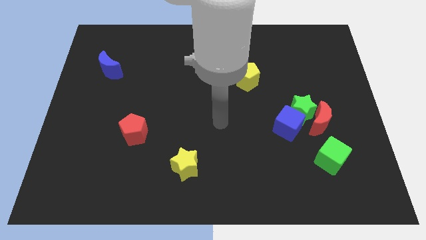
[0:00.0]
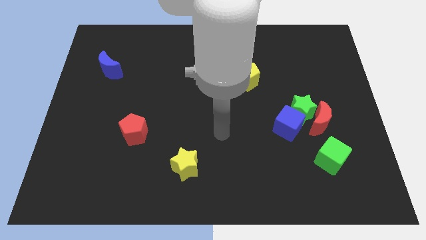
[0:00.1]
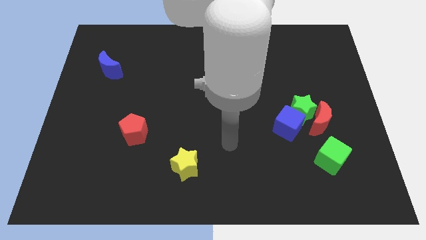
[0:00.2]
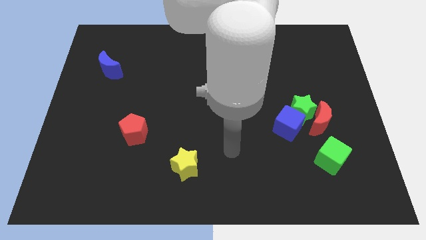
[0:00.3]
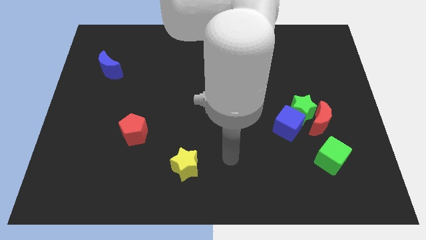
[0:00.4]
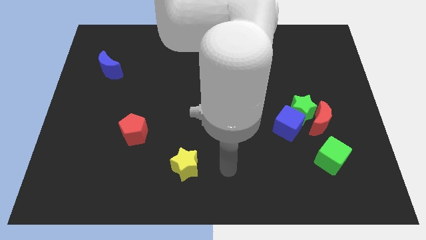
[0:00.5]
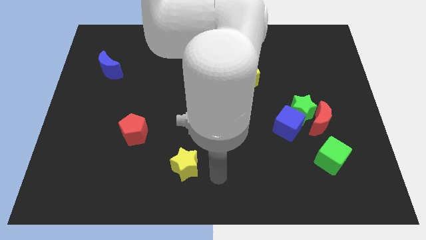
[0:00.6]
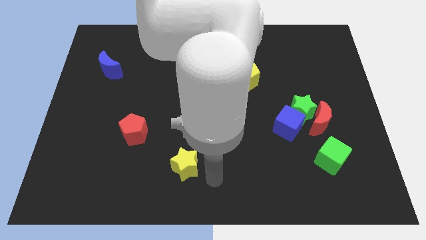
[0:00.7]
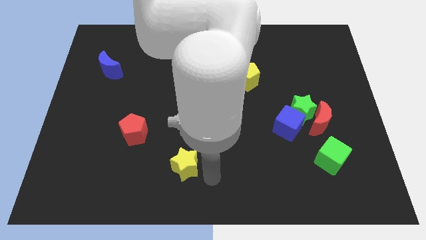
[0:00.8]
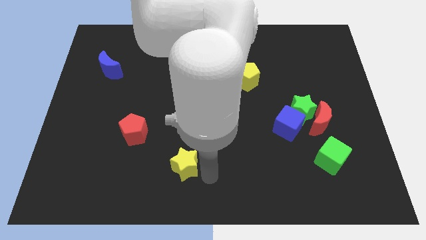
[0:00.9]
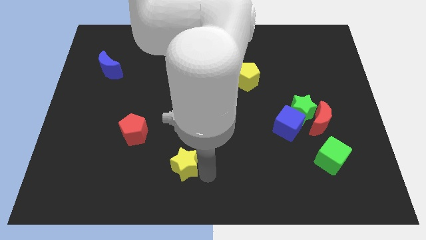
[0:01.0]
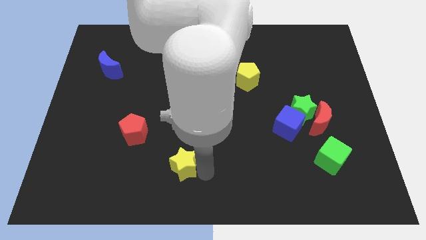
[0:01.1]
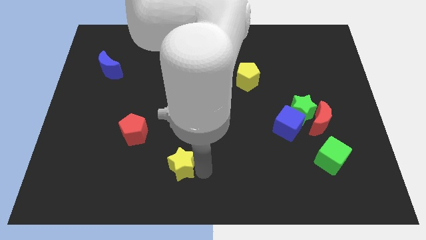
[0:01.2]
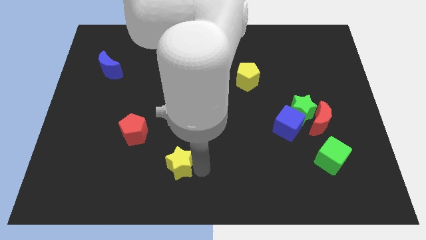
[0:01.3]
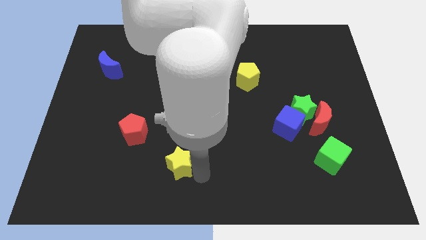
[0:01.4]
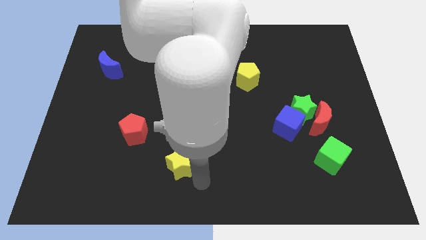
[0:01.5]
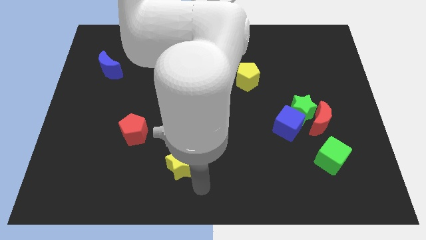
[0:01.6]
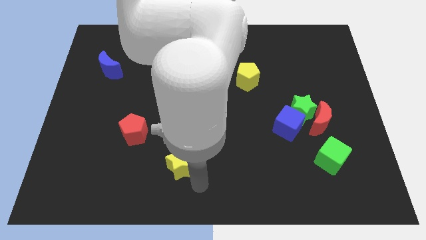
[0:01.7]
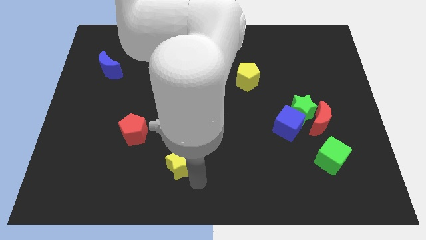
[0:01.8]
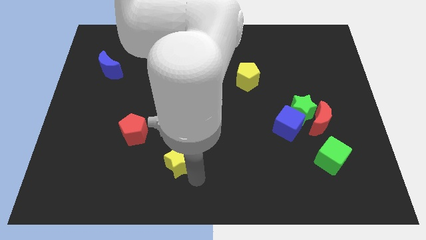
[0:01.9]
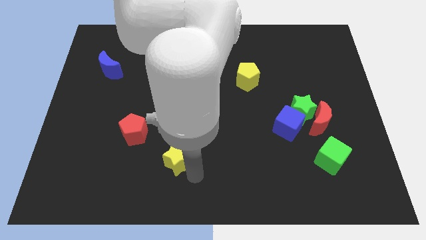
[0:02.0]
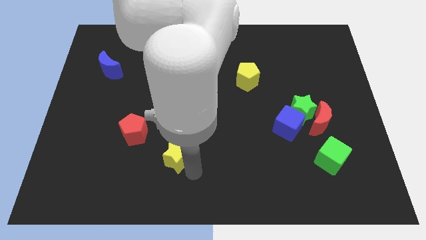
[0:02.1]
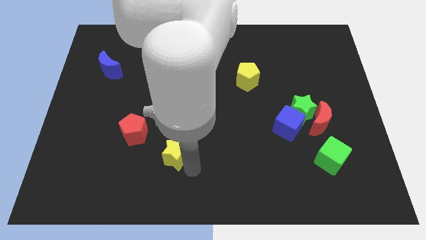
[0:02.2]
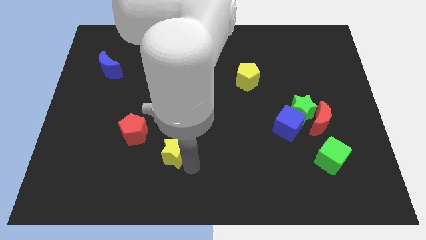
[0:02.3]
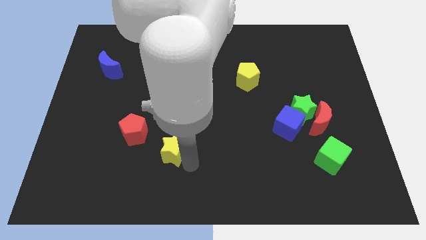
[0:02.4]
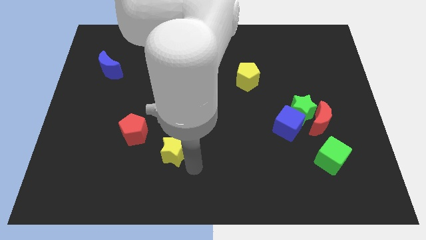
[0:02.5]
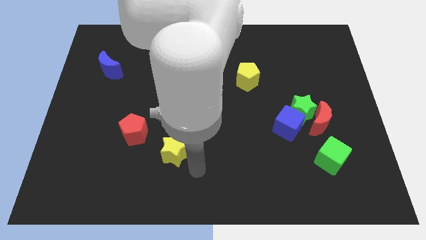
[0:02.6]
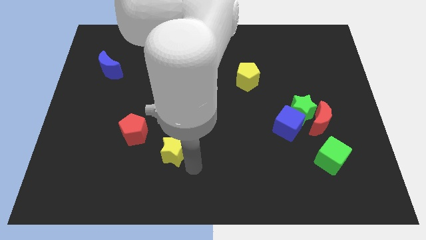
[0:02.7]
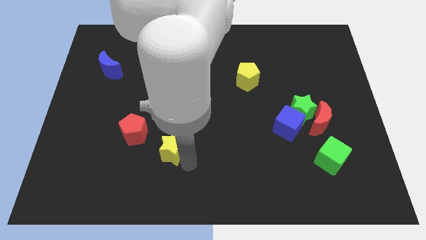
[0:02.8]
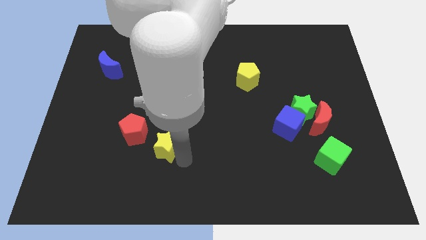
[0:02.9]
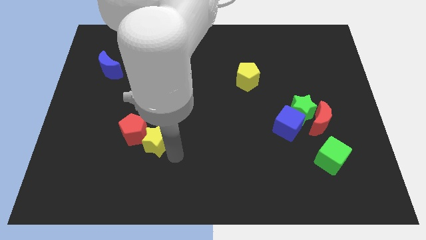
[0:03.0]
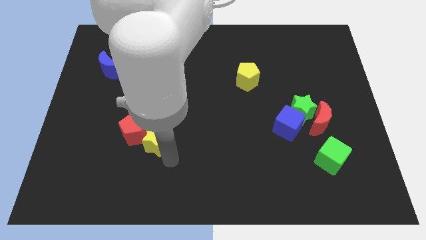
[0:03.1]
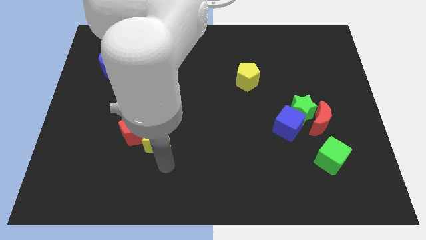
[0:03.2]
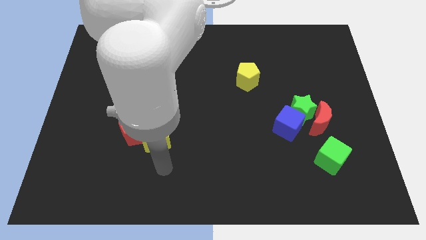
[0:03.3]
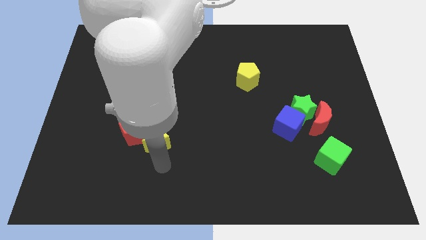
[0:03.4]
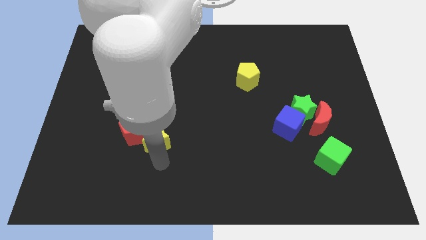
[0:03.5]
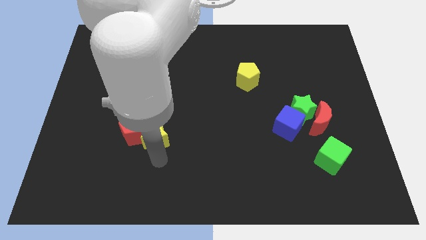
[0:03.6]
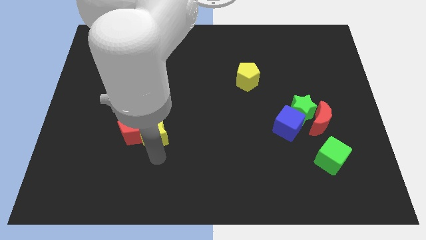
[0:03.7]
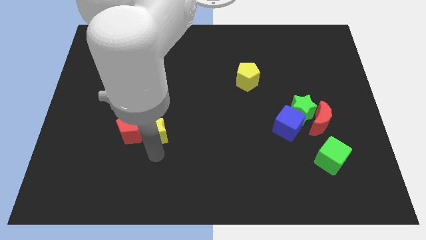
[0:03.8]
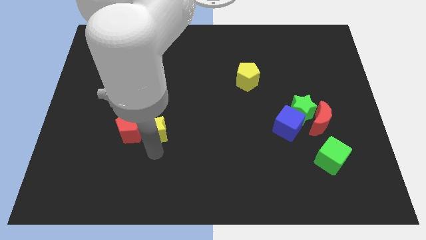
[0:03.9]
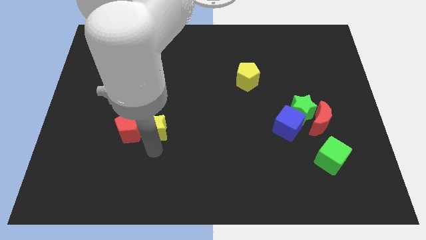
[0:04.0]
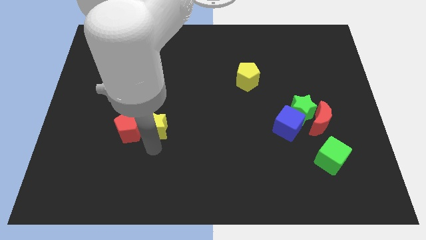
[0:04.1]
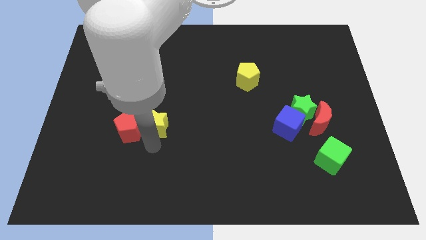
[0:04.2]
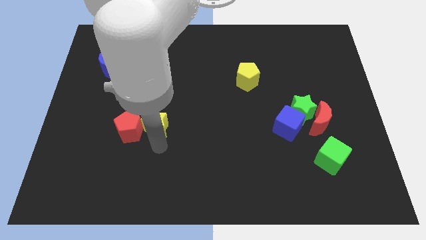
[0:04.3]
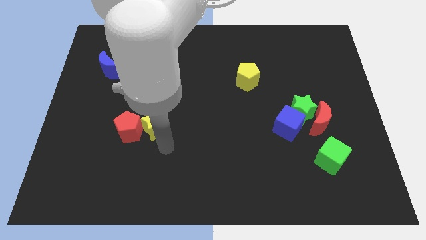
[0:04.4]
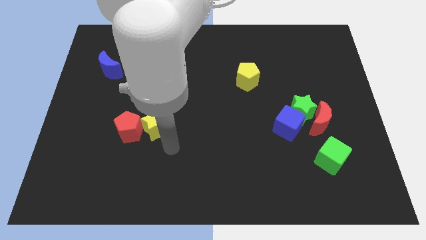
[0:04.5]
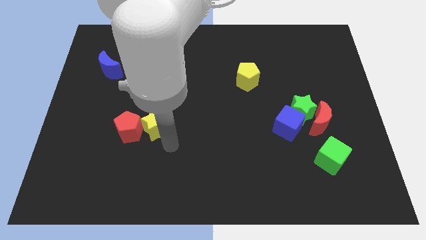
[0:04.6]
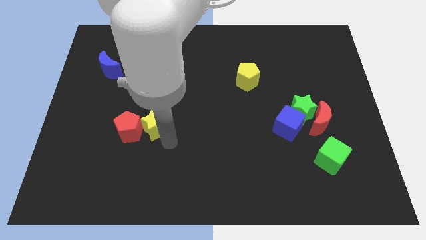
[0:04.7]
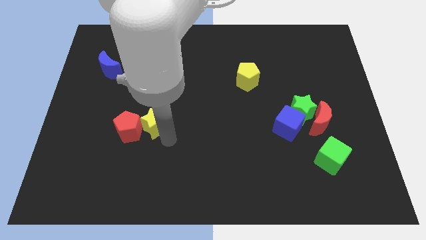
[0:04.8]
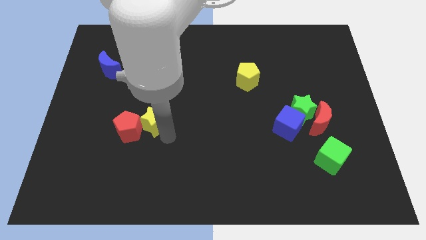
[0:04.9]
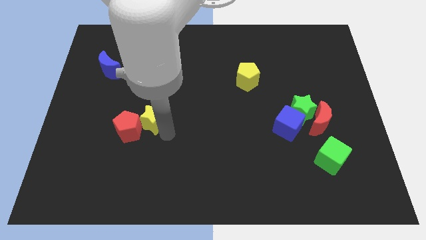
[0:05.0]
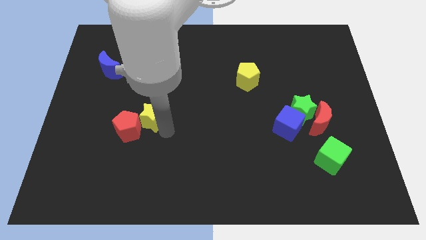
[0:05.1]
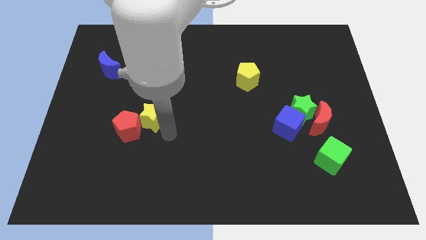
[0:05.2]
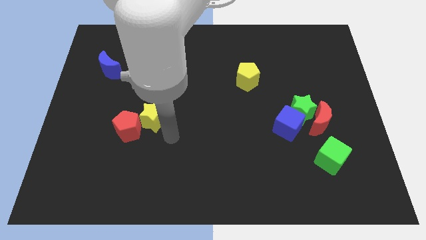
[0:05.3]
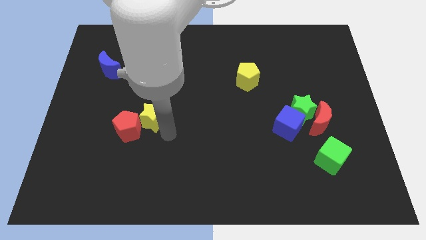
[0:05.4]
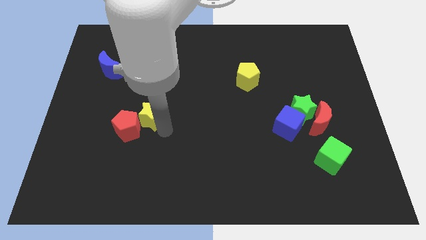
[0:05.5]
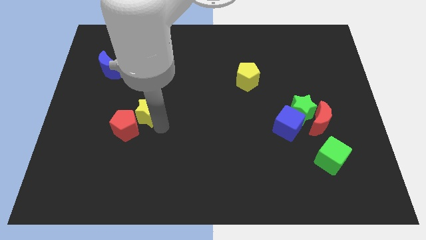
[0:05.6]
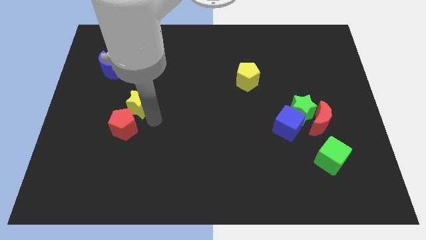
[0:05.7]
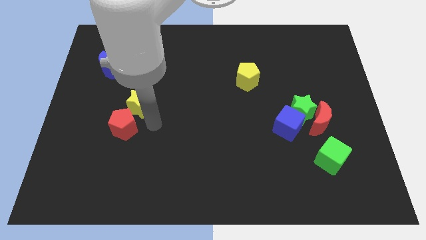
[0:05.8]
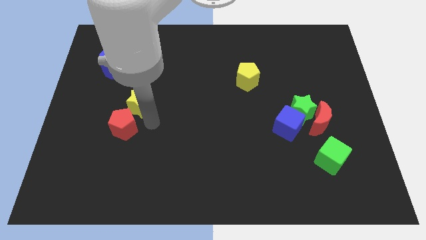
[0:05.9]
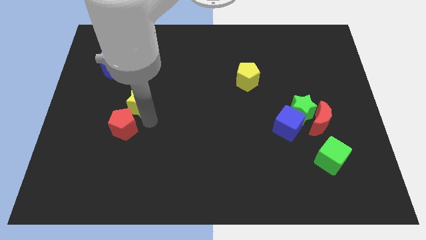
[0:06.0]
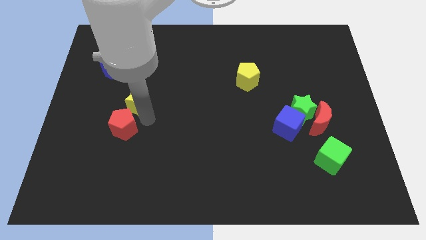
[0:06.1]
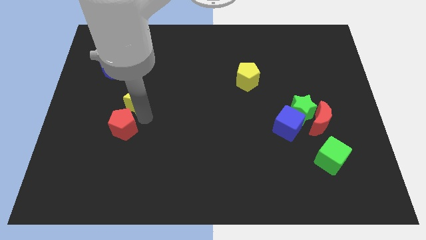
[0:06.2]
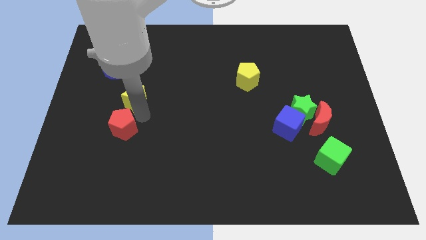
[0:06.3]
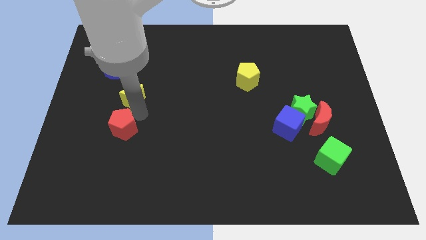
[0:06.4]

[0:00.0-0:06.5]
move the yellow star to the bottom right side of the blue moon

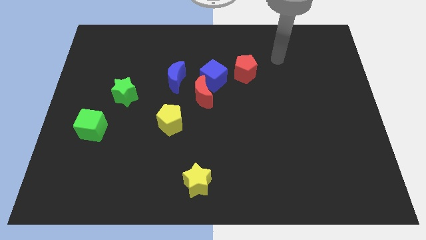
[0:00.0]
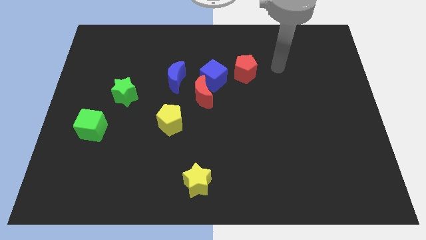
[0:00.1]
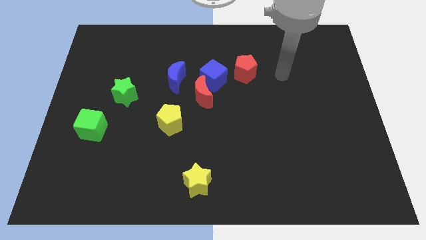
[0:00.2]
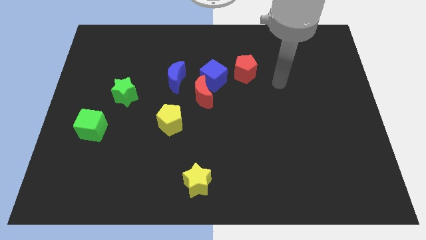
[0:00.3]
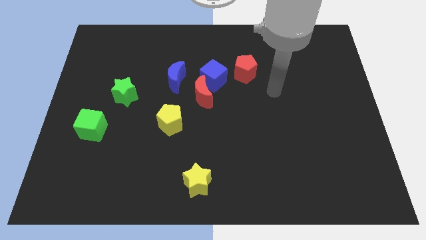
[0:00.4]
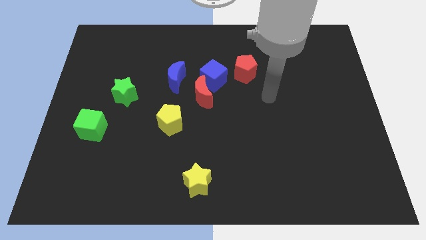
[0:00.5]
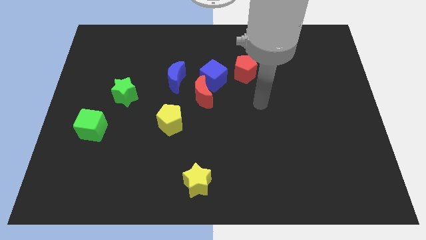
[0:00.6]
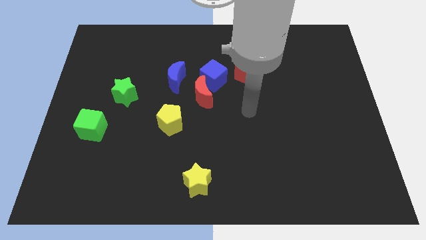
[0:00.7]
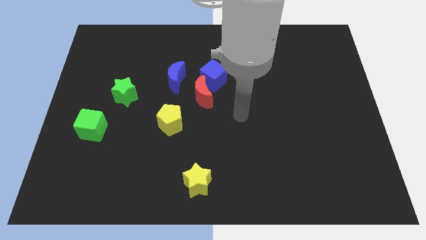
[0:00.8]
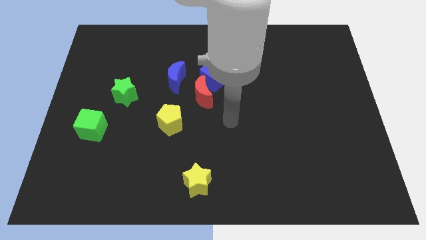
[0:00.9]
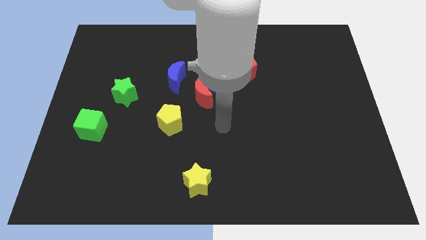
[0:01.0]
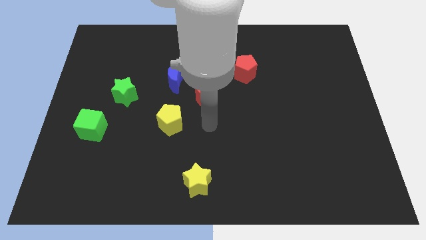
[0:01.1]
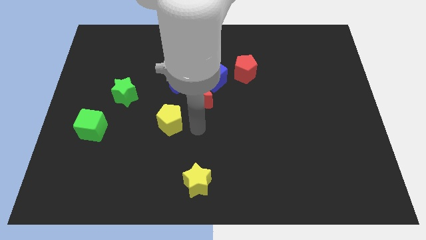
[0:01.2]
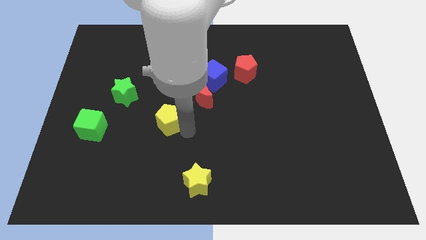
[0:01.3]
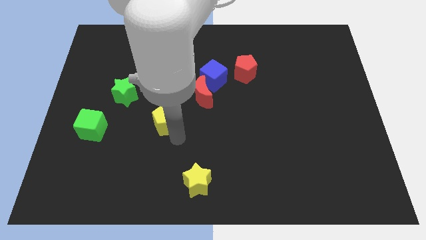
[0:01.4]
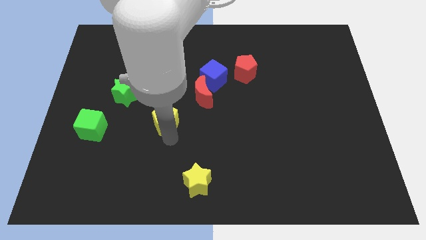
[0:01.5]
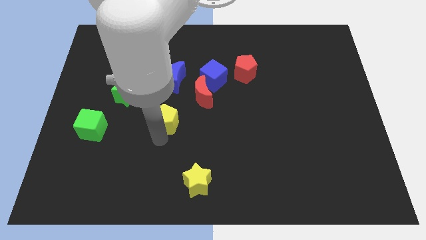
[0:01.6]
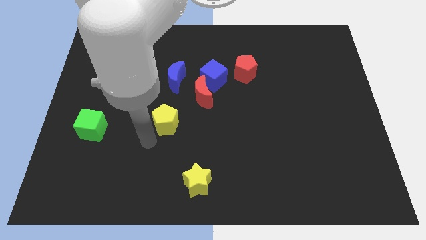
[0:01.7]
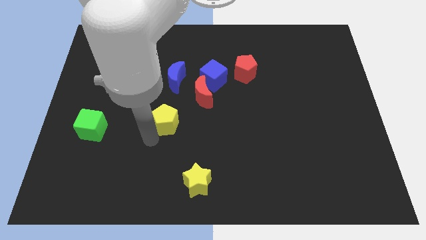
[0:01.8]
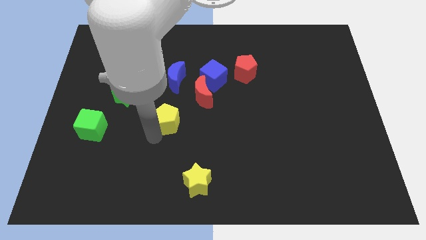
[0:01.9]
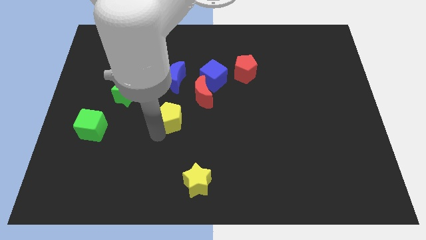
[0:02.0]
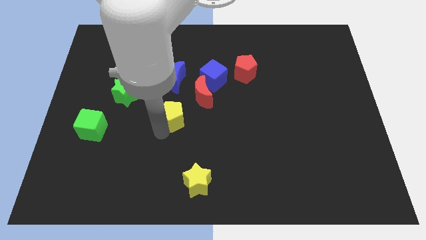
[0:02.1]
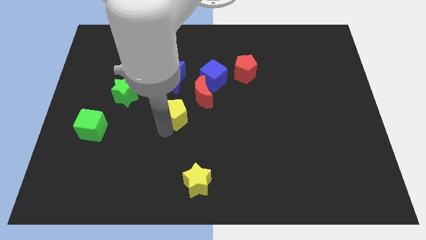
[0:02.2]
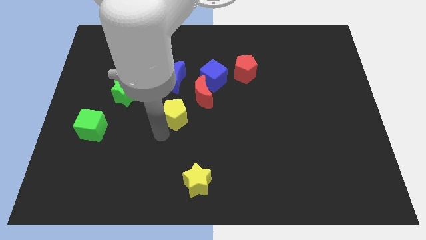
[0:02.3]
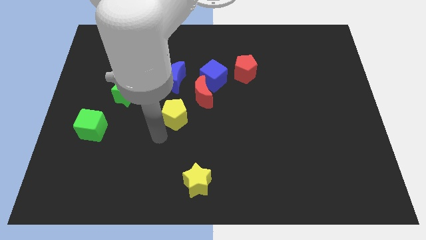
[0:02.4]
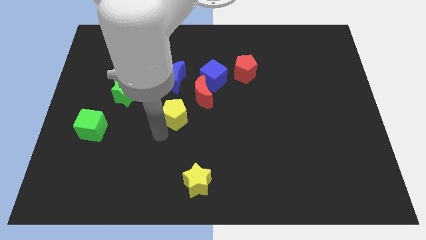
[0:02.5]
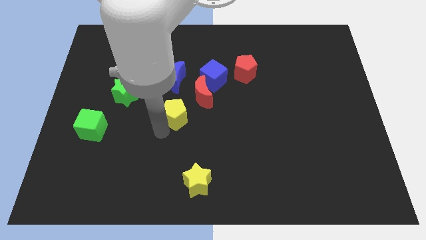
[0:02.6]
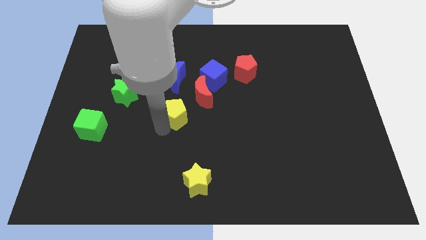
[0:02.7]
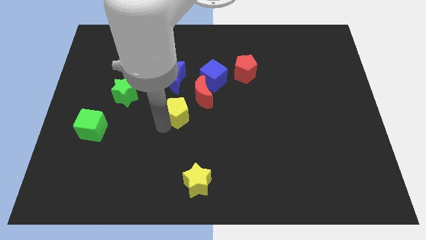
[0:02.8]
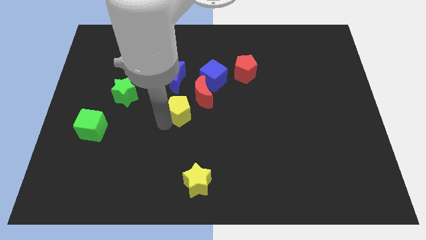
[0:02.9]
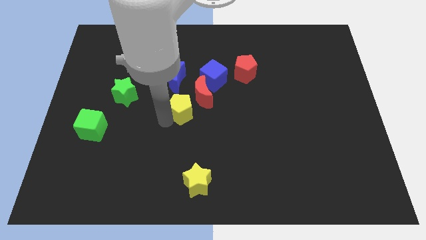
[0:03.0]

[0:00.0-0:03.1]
slide the yellow pentagon diagonally down and to the left of the blue cube
